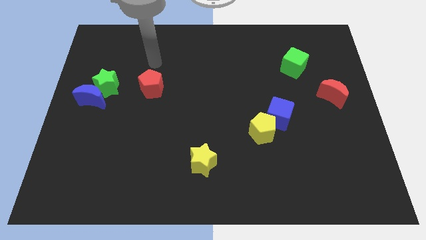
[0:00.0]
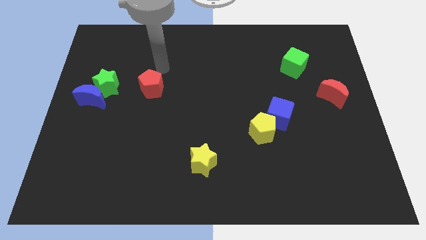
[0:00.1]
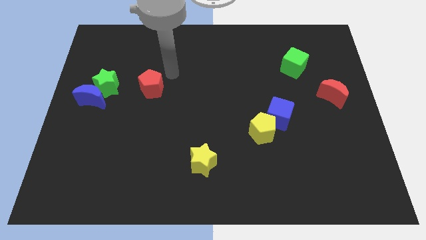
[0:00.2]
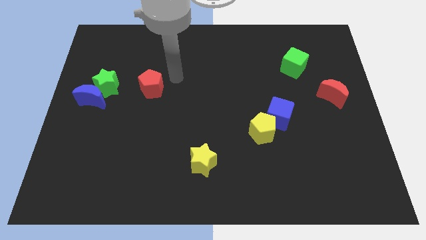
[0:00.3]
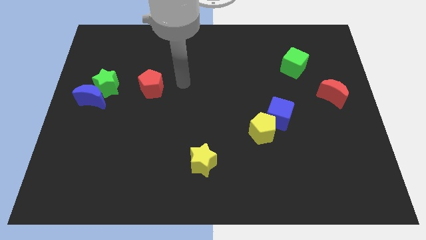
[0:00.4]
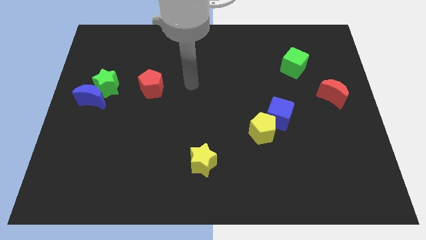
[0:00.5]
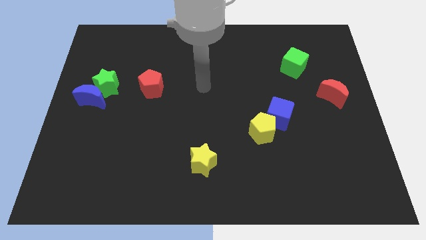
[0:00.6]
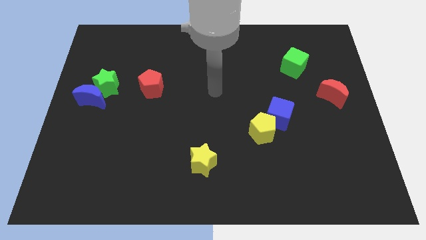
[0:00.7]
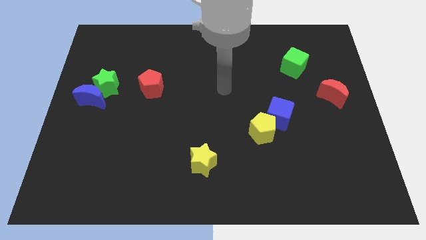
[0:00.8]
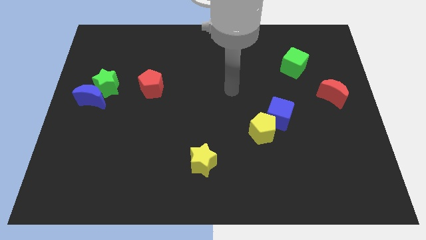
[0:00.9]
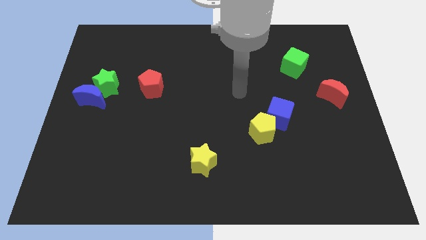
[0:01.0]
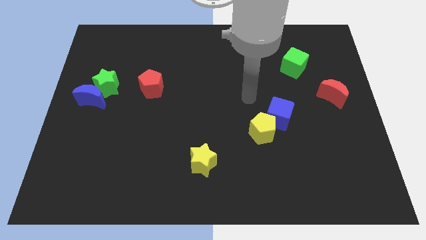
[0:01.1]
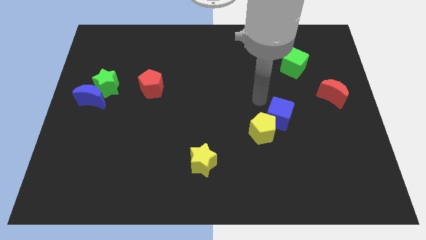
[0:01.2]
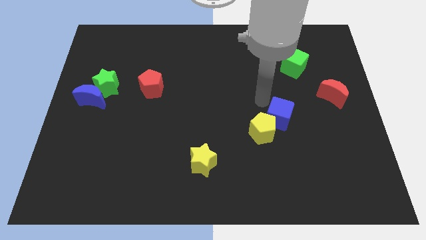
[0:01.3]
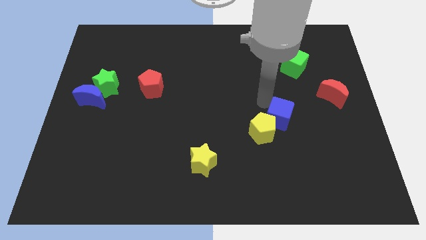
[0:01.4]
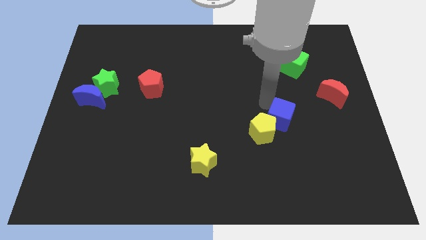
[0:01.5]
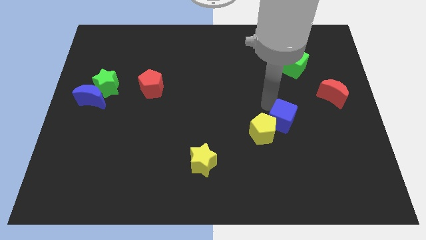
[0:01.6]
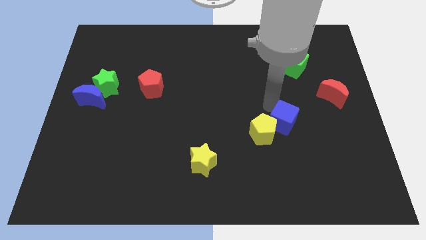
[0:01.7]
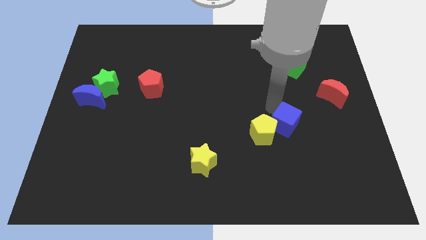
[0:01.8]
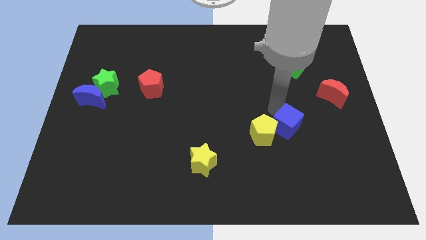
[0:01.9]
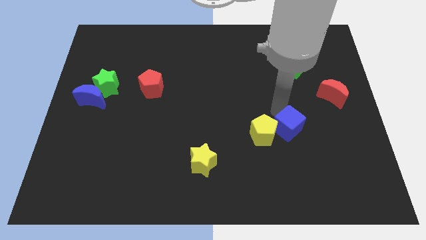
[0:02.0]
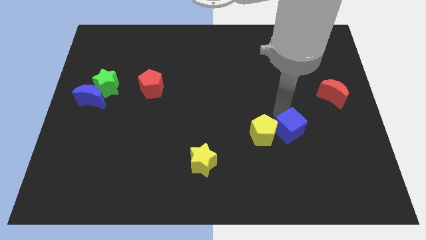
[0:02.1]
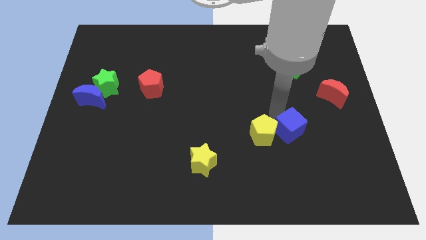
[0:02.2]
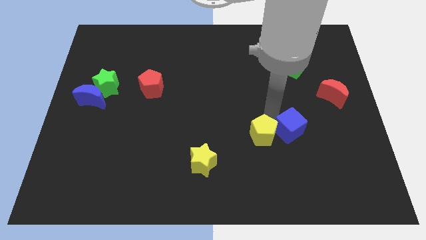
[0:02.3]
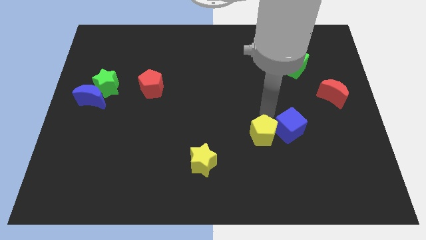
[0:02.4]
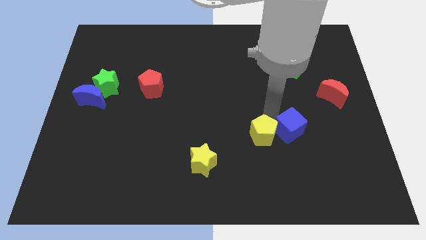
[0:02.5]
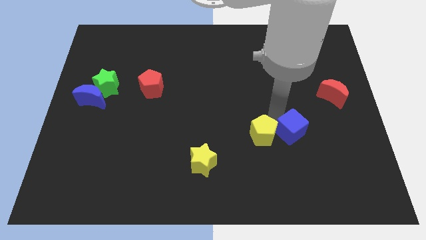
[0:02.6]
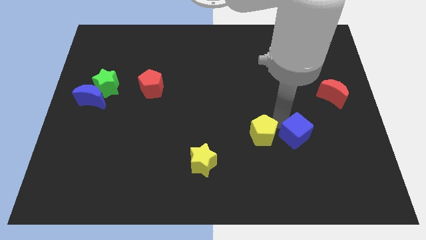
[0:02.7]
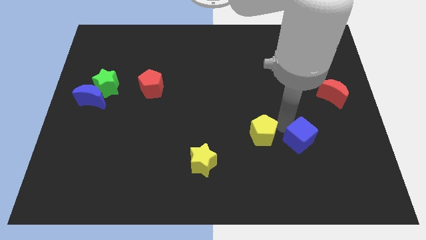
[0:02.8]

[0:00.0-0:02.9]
slightly slide the blue cube down and right

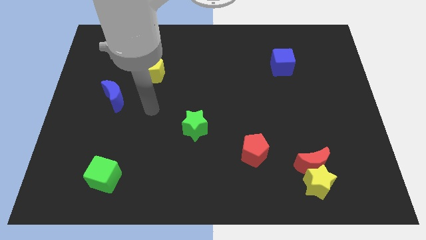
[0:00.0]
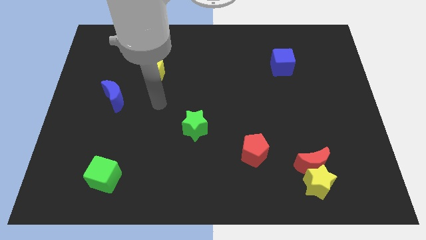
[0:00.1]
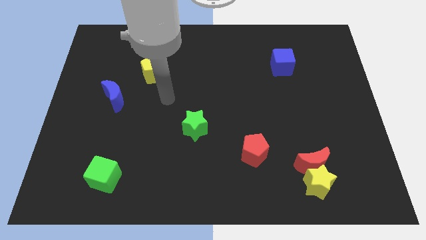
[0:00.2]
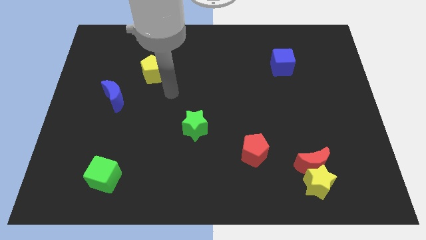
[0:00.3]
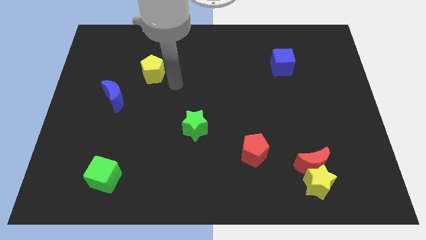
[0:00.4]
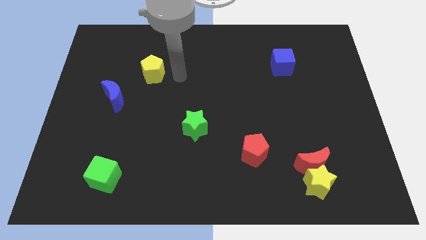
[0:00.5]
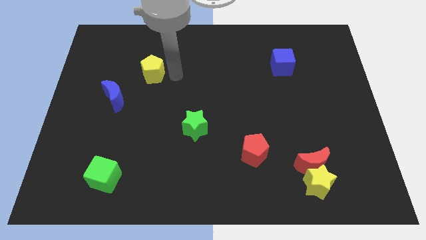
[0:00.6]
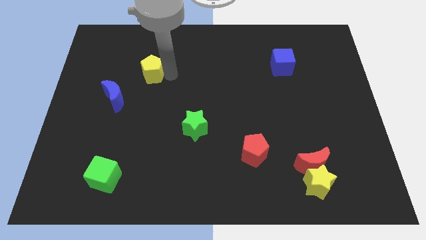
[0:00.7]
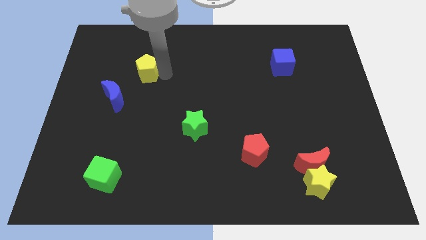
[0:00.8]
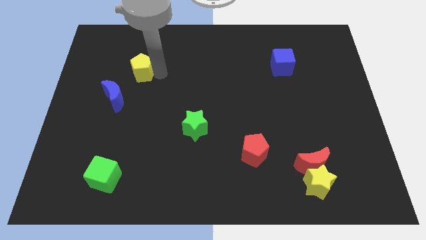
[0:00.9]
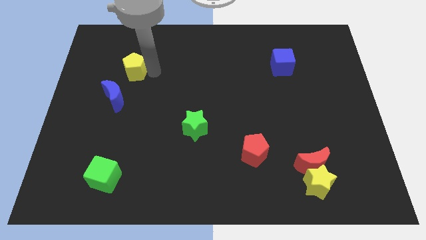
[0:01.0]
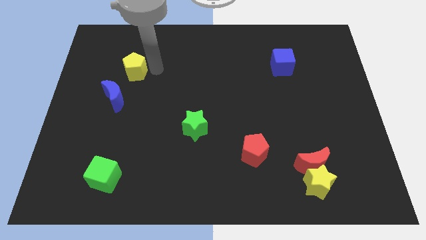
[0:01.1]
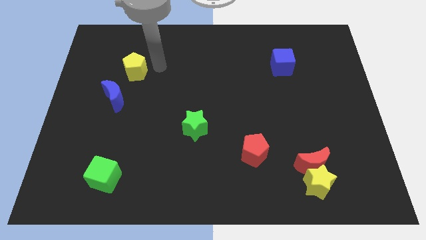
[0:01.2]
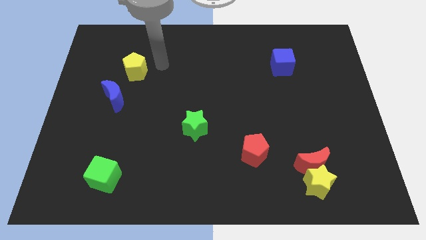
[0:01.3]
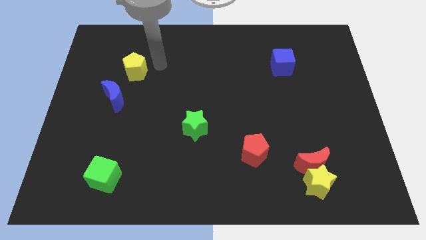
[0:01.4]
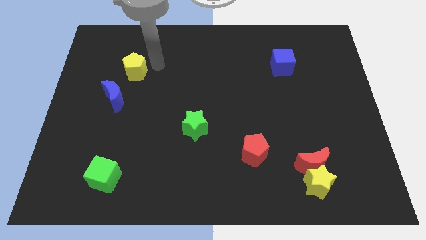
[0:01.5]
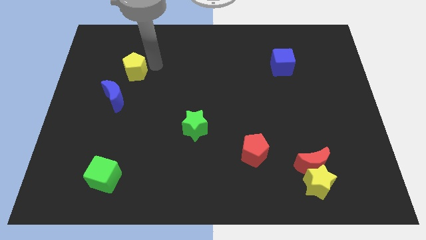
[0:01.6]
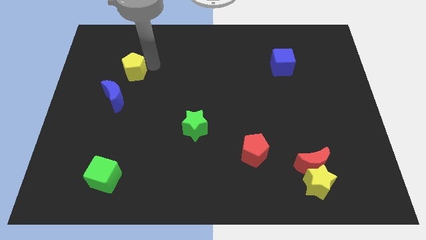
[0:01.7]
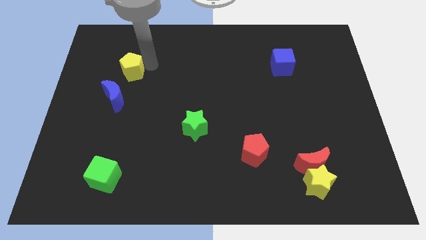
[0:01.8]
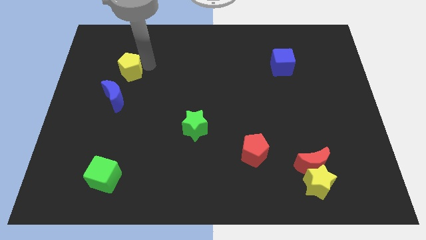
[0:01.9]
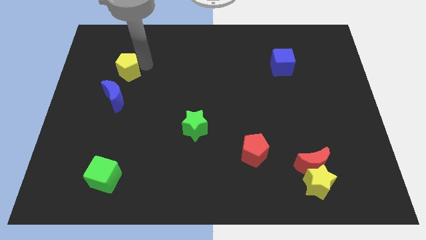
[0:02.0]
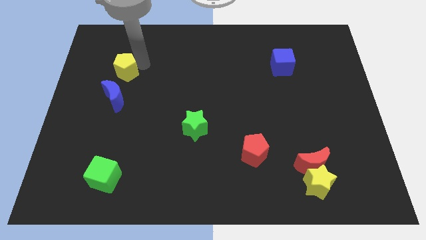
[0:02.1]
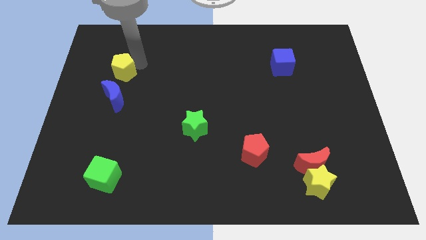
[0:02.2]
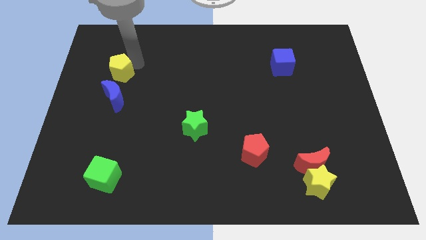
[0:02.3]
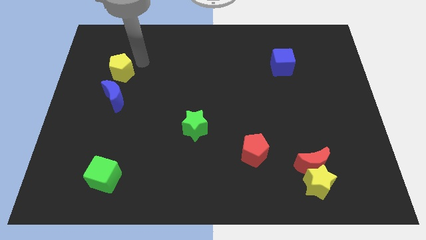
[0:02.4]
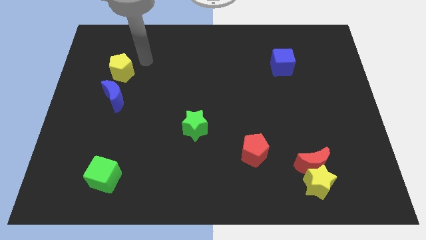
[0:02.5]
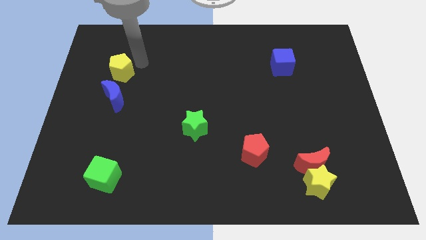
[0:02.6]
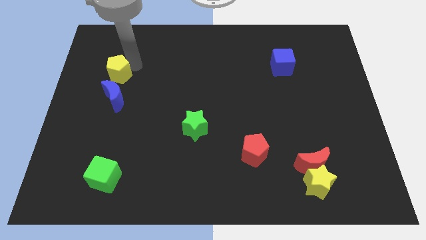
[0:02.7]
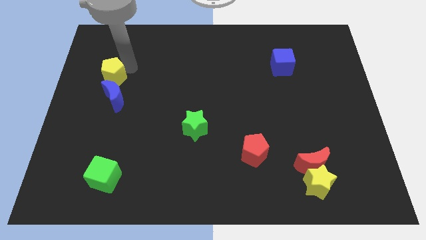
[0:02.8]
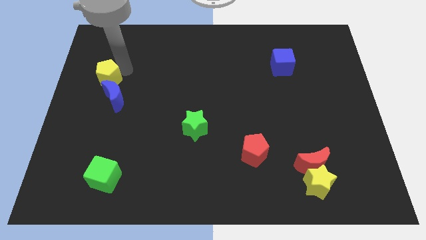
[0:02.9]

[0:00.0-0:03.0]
slightly push the yellow pentagon down and left diagonally

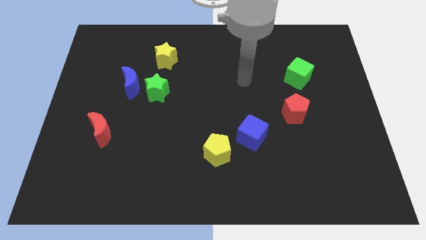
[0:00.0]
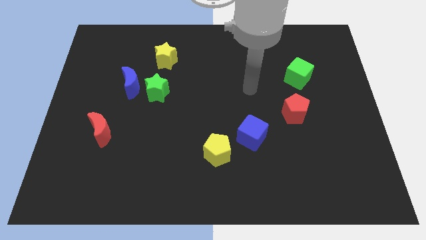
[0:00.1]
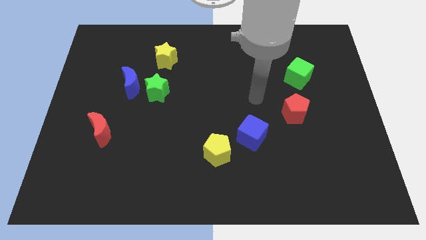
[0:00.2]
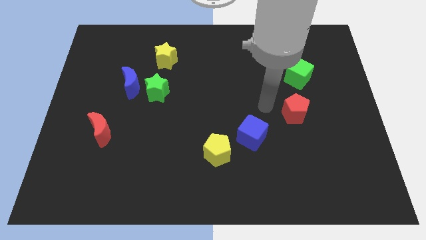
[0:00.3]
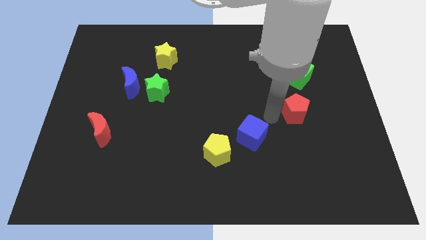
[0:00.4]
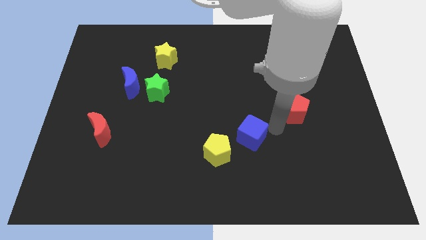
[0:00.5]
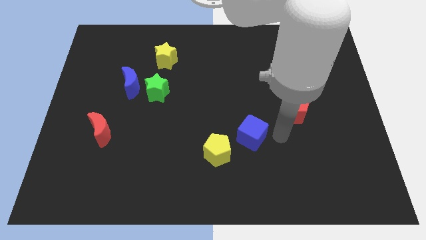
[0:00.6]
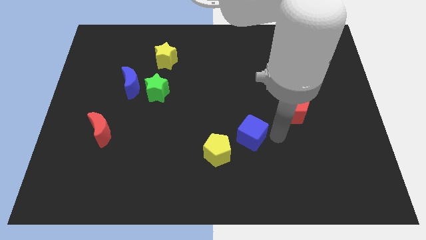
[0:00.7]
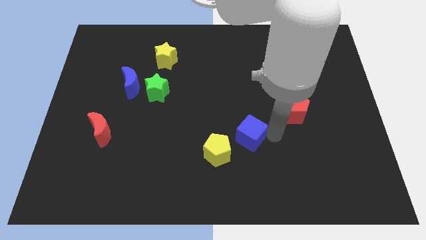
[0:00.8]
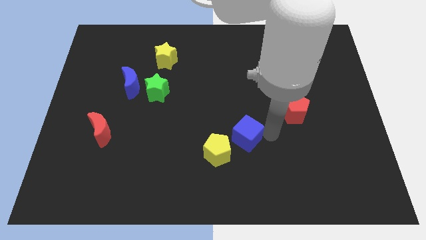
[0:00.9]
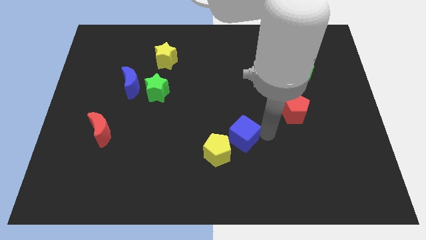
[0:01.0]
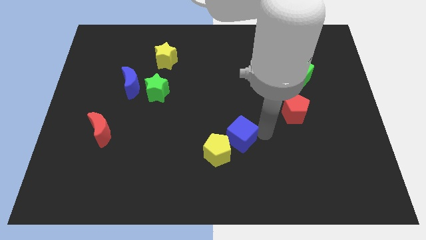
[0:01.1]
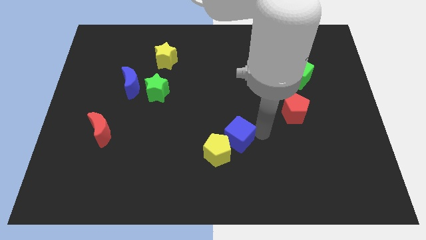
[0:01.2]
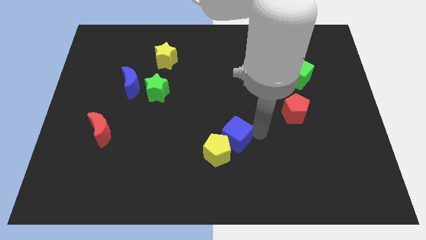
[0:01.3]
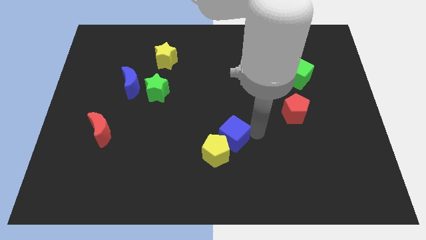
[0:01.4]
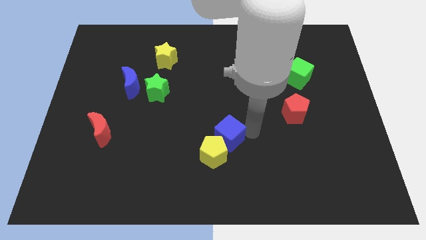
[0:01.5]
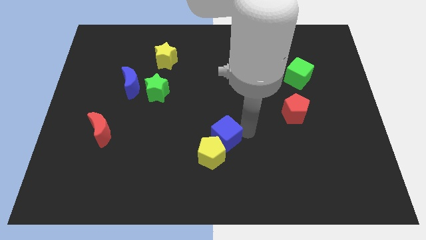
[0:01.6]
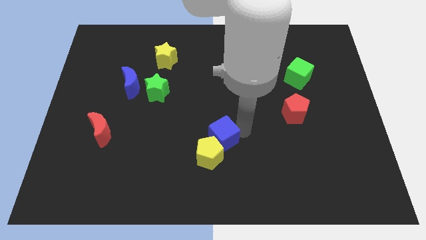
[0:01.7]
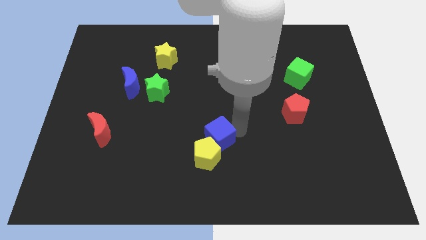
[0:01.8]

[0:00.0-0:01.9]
move the blue cube left a little bit

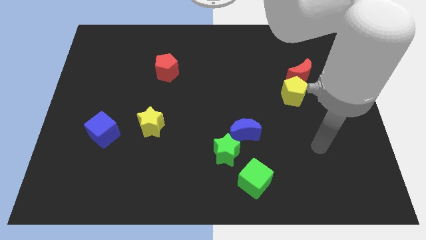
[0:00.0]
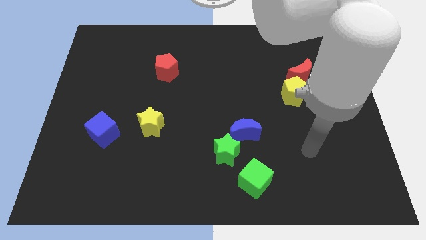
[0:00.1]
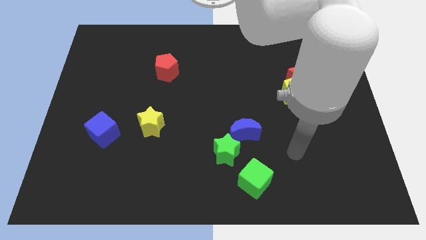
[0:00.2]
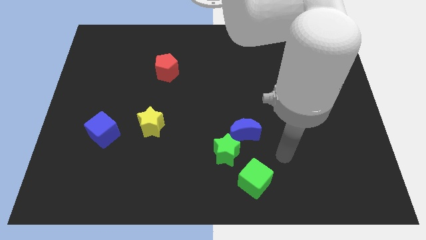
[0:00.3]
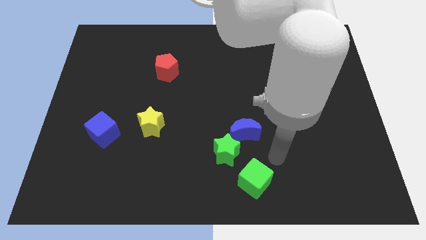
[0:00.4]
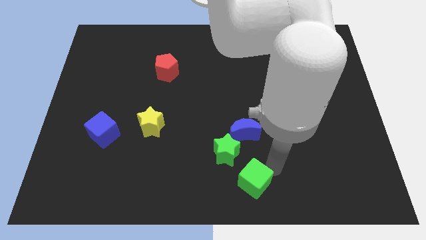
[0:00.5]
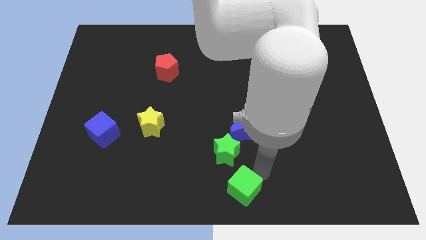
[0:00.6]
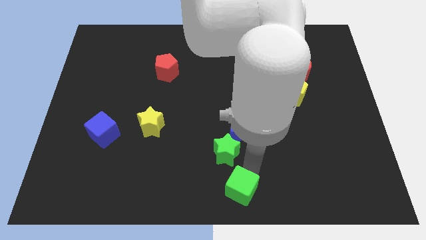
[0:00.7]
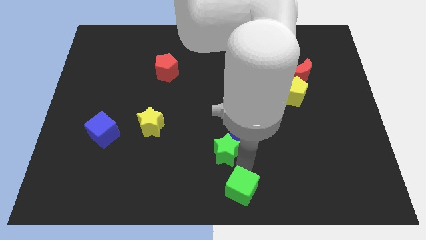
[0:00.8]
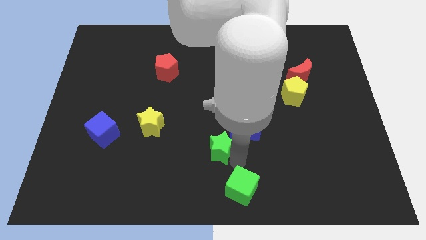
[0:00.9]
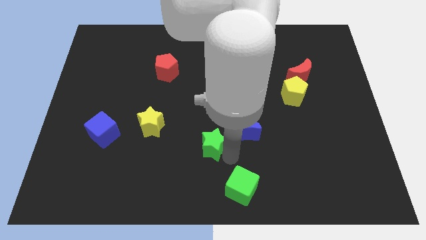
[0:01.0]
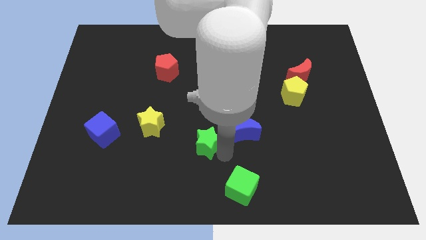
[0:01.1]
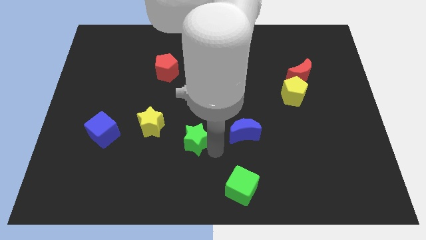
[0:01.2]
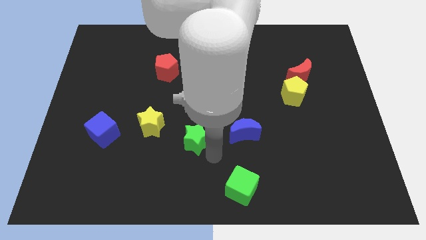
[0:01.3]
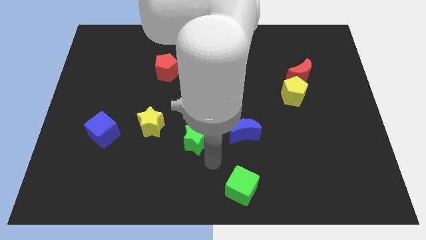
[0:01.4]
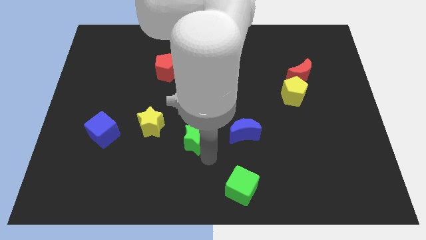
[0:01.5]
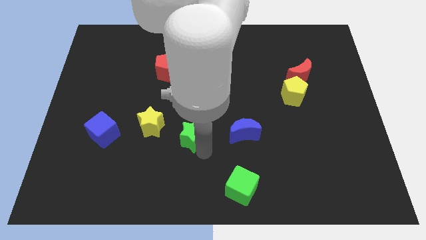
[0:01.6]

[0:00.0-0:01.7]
slightly push the green star upwards and to the left
